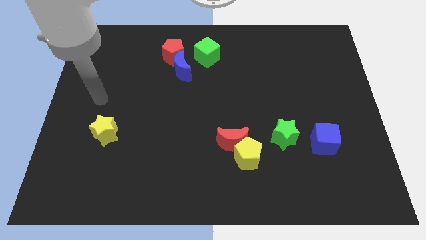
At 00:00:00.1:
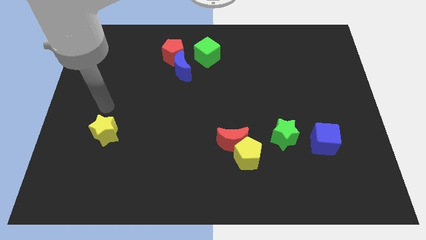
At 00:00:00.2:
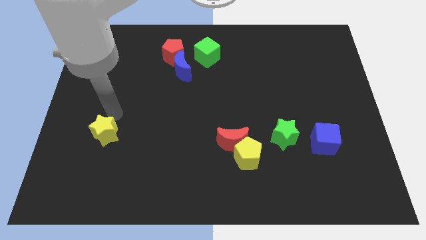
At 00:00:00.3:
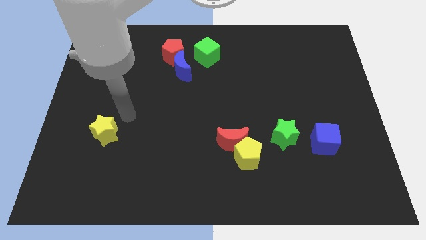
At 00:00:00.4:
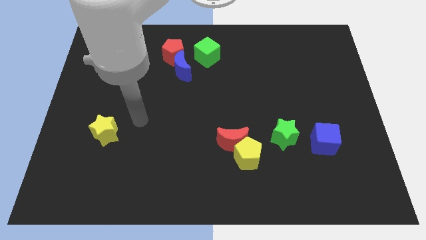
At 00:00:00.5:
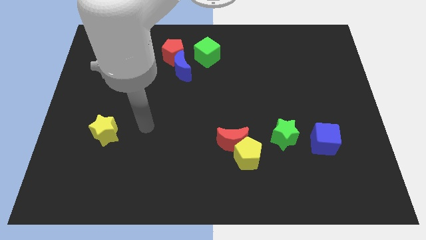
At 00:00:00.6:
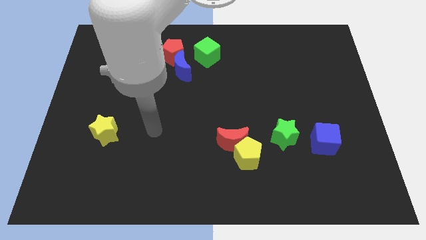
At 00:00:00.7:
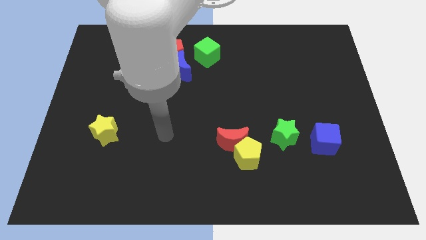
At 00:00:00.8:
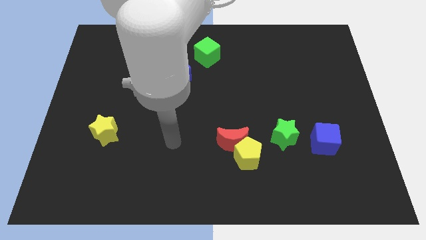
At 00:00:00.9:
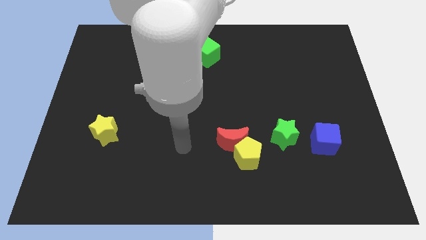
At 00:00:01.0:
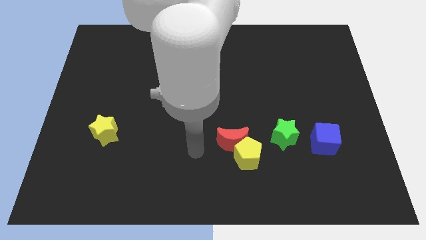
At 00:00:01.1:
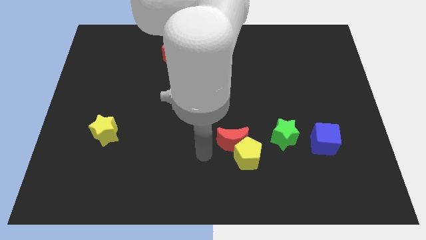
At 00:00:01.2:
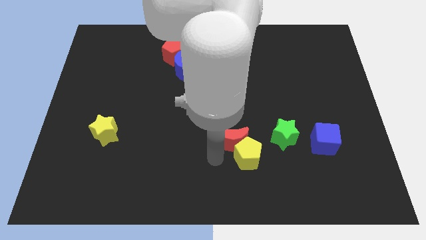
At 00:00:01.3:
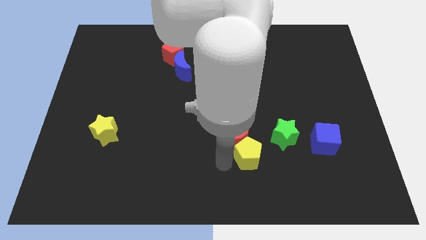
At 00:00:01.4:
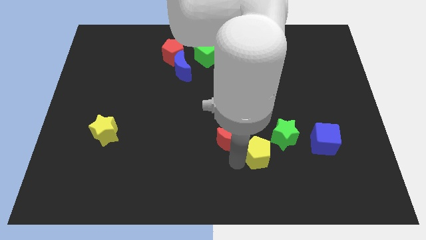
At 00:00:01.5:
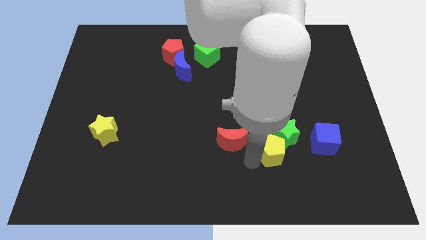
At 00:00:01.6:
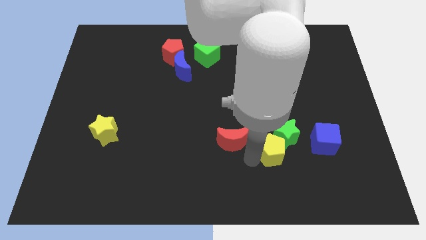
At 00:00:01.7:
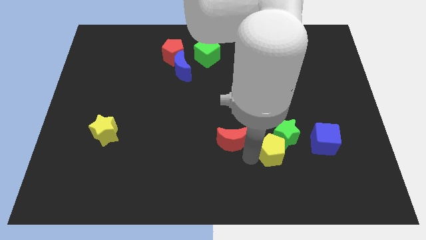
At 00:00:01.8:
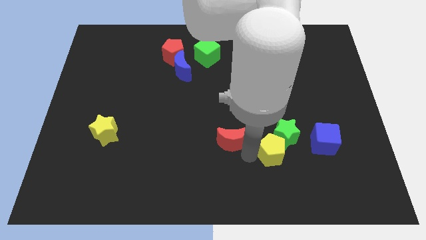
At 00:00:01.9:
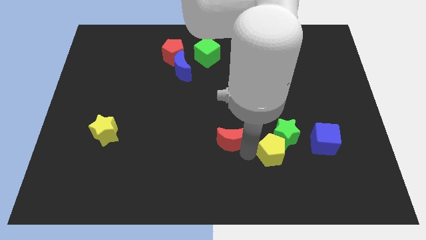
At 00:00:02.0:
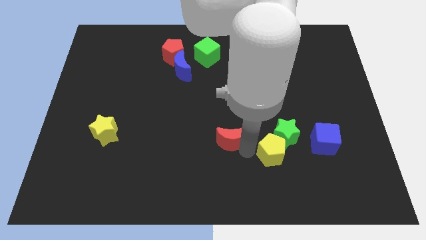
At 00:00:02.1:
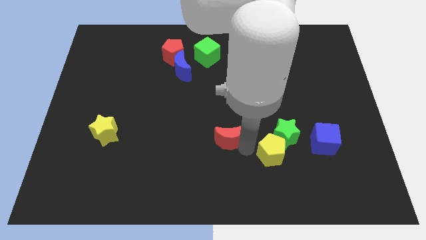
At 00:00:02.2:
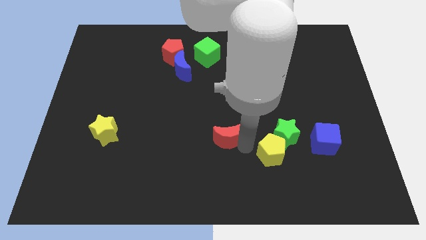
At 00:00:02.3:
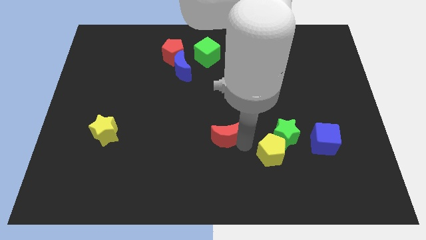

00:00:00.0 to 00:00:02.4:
separate the red moon from the yellow pentagon

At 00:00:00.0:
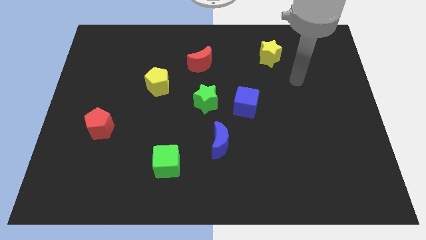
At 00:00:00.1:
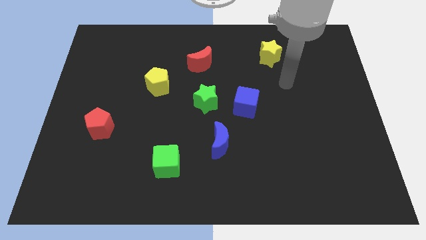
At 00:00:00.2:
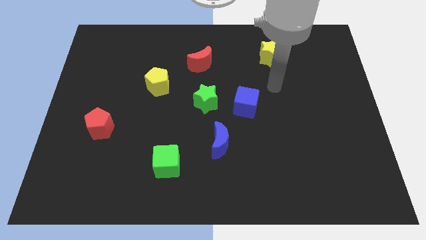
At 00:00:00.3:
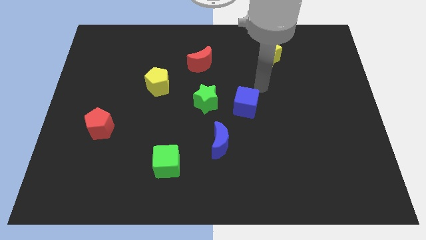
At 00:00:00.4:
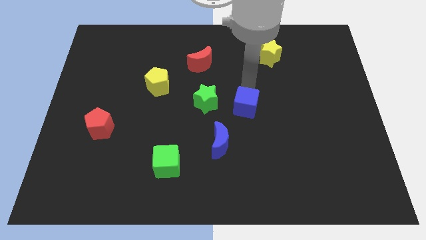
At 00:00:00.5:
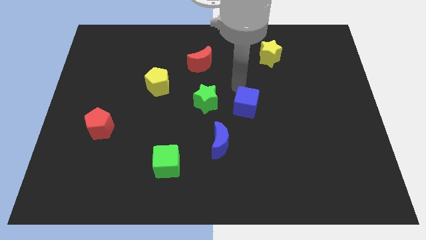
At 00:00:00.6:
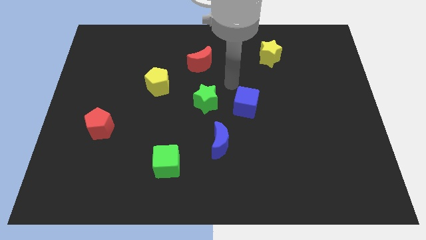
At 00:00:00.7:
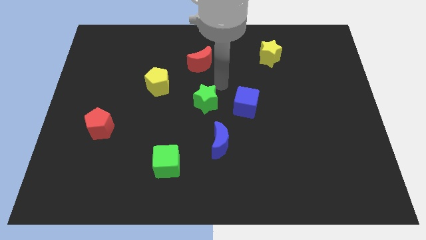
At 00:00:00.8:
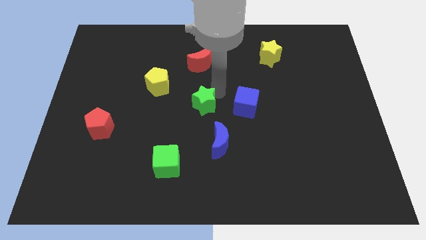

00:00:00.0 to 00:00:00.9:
separate the blue cube from the green star

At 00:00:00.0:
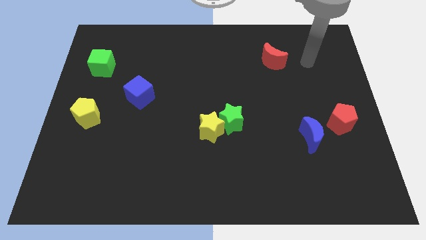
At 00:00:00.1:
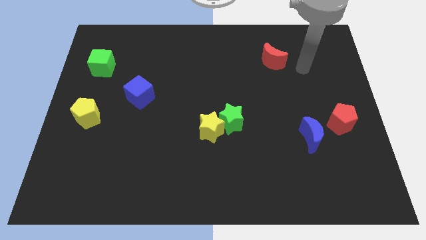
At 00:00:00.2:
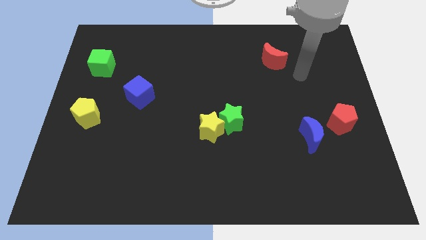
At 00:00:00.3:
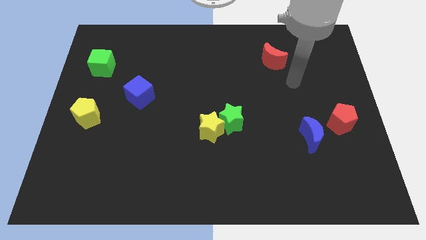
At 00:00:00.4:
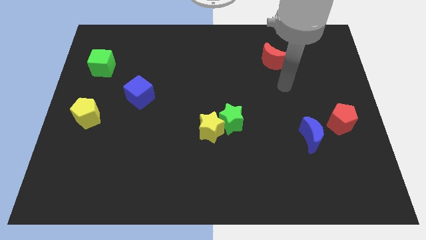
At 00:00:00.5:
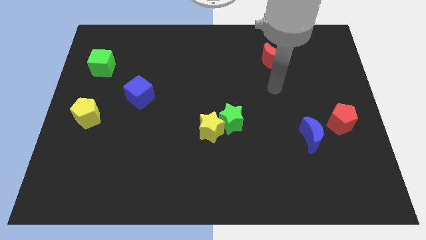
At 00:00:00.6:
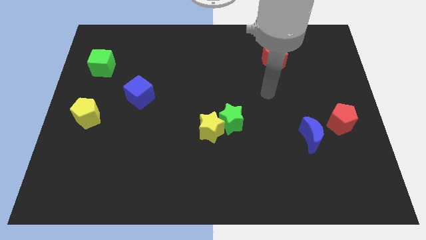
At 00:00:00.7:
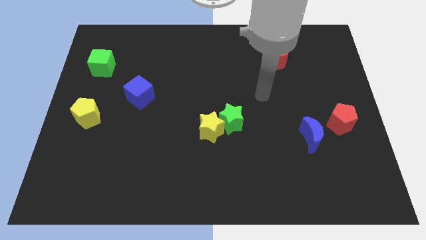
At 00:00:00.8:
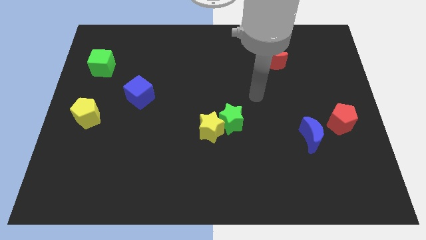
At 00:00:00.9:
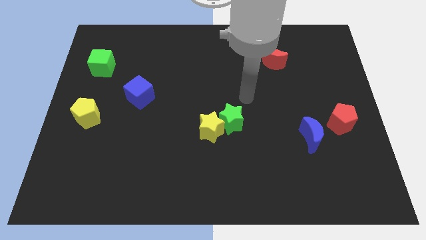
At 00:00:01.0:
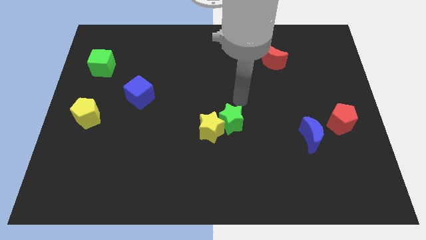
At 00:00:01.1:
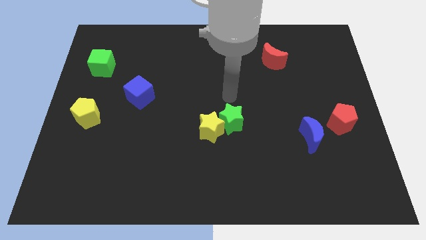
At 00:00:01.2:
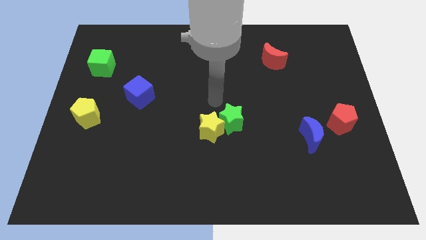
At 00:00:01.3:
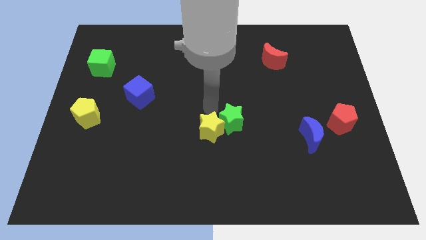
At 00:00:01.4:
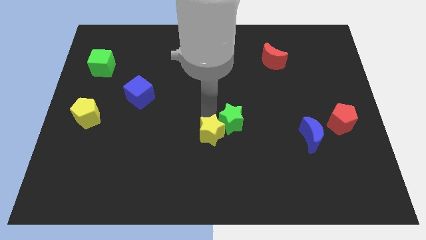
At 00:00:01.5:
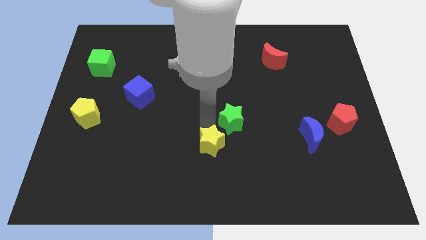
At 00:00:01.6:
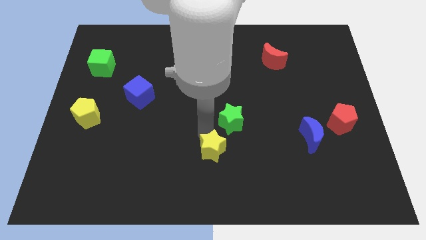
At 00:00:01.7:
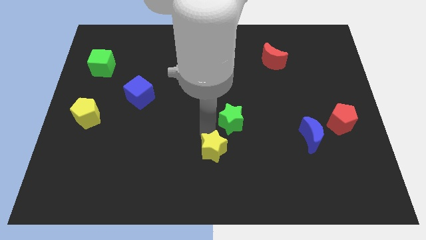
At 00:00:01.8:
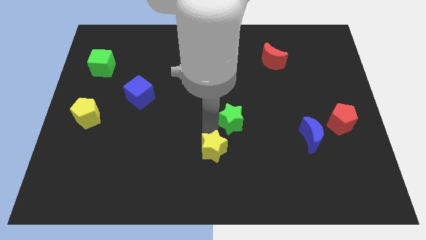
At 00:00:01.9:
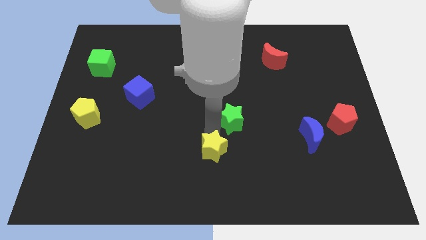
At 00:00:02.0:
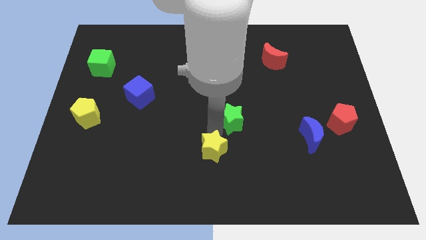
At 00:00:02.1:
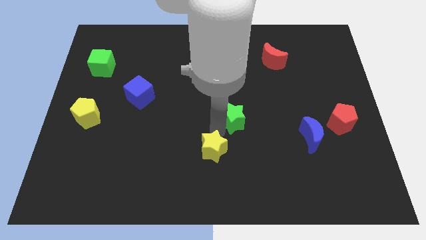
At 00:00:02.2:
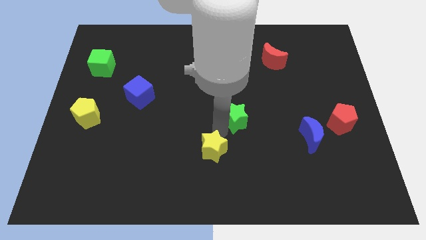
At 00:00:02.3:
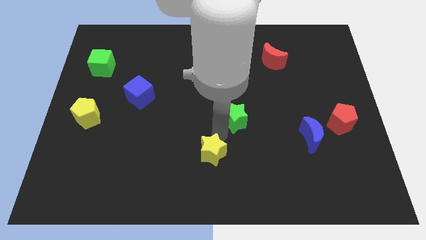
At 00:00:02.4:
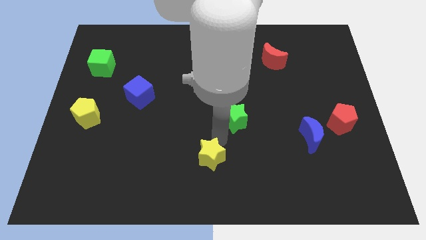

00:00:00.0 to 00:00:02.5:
pull the green star apart from the yellow star

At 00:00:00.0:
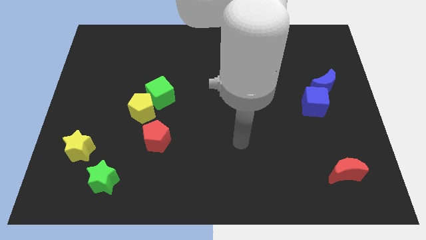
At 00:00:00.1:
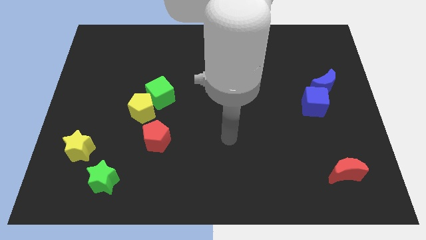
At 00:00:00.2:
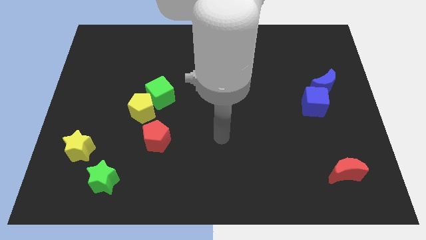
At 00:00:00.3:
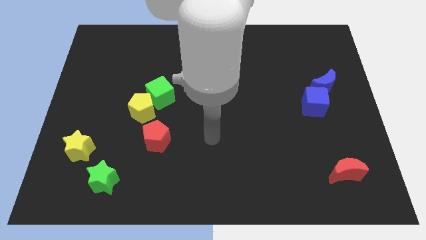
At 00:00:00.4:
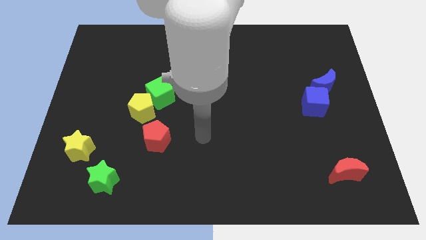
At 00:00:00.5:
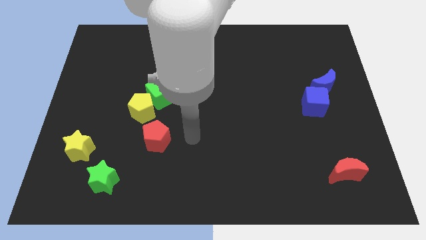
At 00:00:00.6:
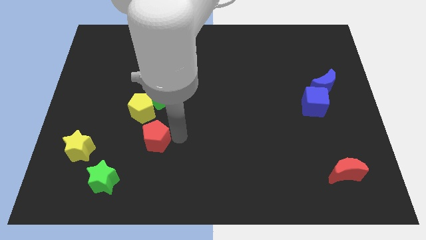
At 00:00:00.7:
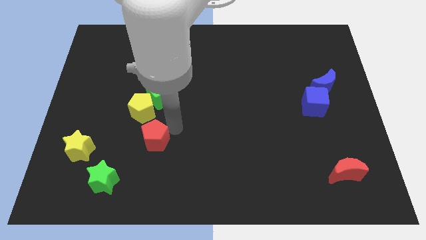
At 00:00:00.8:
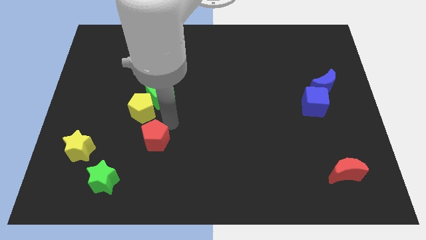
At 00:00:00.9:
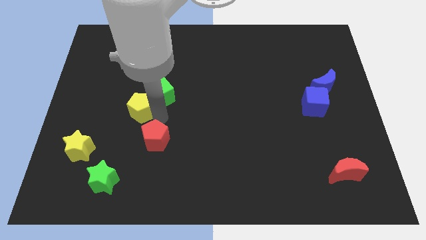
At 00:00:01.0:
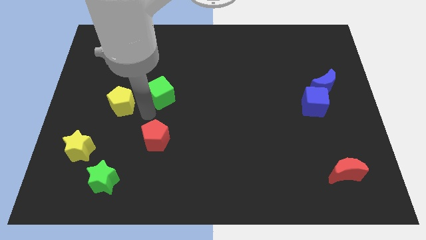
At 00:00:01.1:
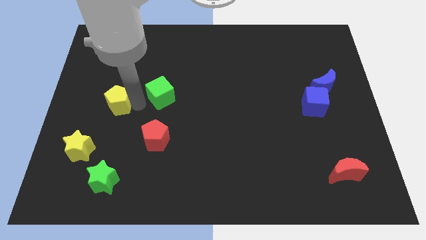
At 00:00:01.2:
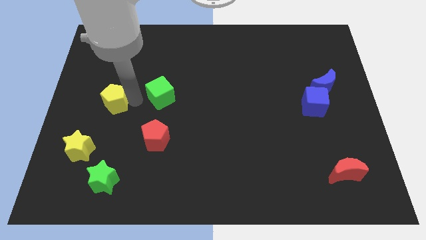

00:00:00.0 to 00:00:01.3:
pull the green cube apart from the yellow pentagon

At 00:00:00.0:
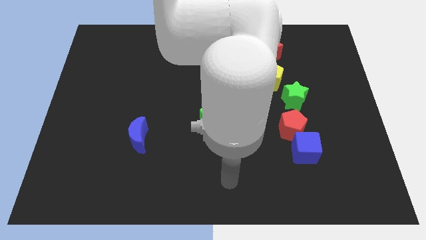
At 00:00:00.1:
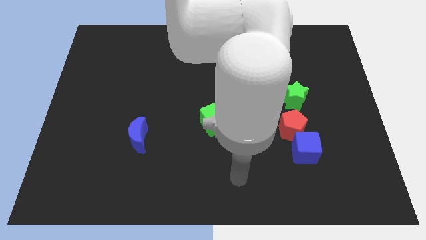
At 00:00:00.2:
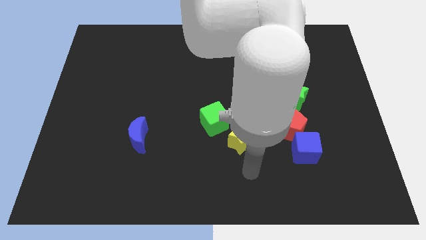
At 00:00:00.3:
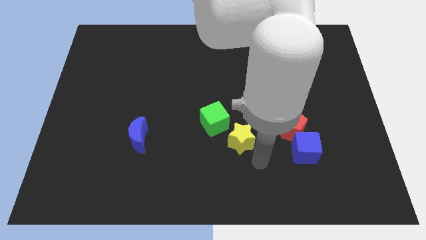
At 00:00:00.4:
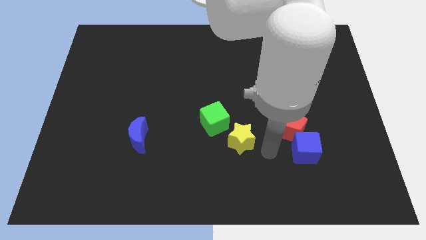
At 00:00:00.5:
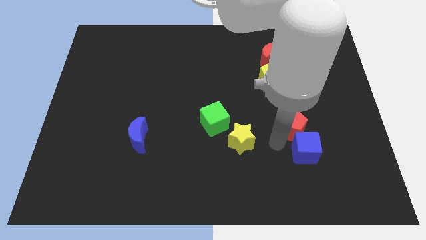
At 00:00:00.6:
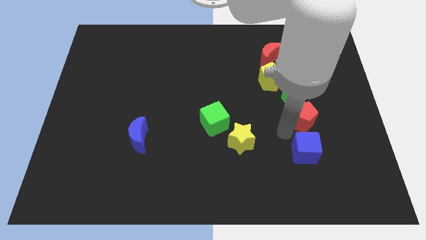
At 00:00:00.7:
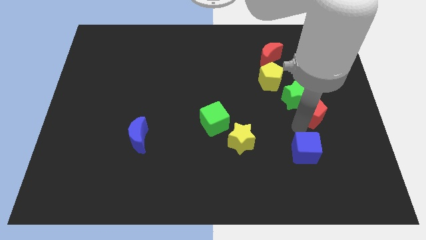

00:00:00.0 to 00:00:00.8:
separate the blue cube from the red pentagon

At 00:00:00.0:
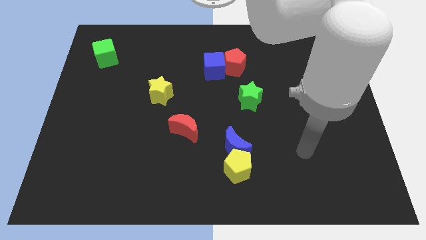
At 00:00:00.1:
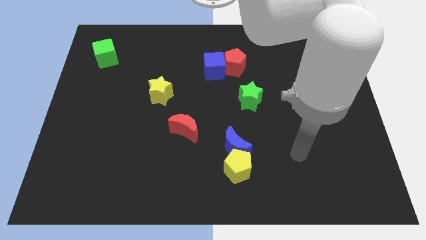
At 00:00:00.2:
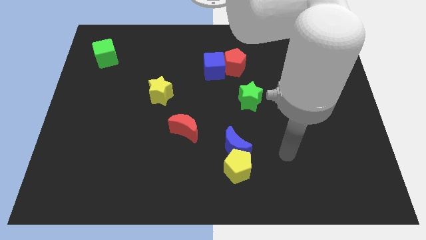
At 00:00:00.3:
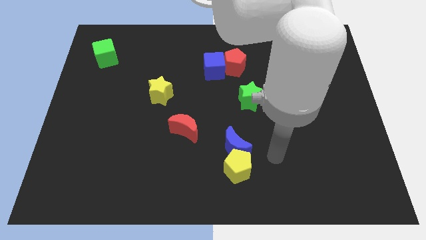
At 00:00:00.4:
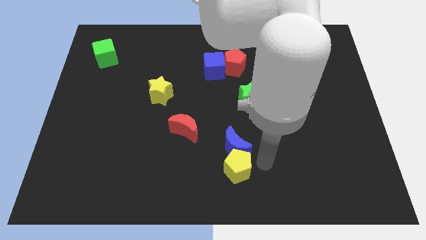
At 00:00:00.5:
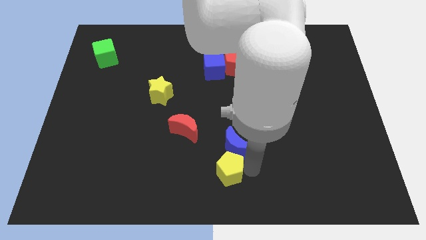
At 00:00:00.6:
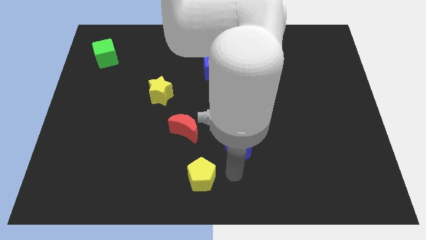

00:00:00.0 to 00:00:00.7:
separate the blue moon from the yellow pentagon

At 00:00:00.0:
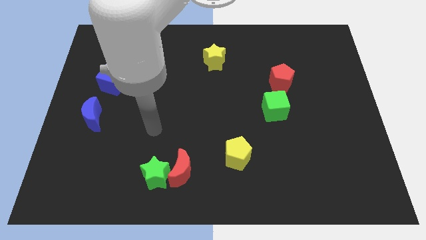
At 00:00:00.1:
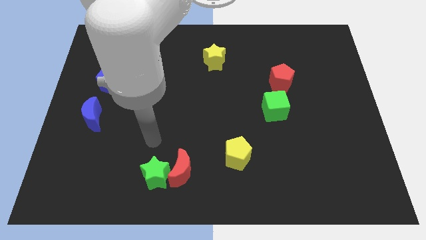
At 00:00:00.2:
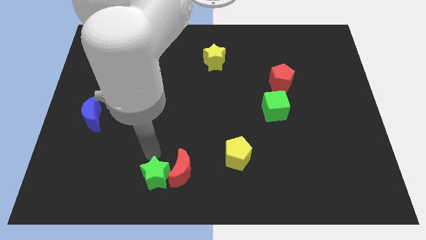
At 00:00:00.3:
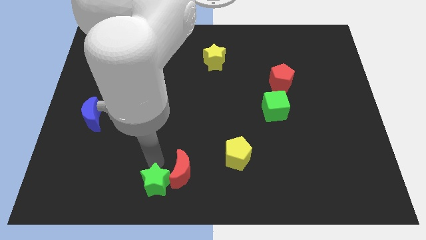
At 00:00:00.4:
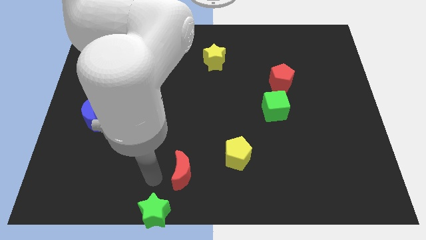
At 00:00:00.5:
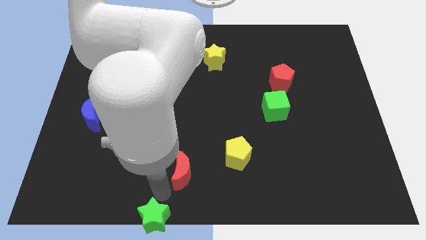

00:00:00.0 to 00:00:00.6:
move the red moon away from the green star
